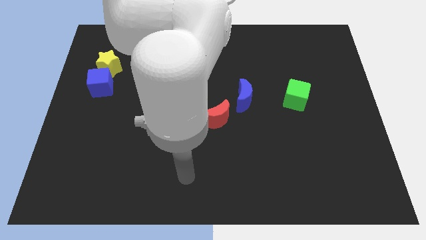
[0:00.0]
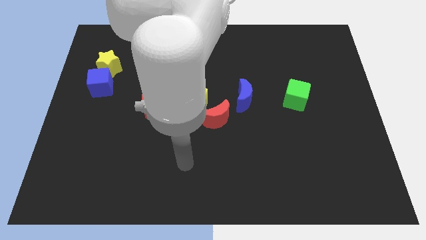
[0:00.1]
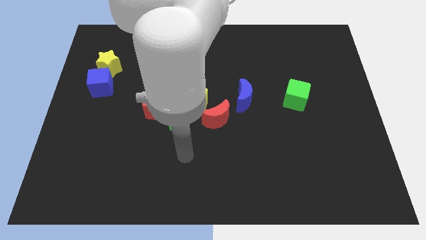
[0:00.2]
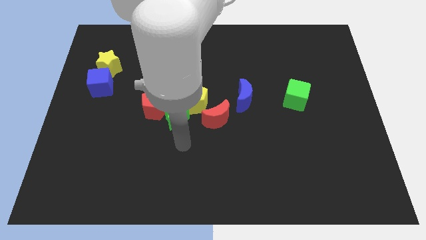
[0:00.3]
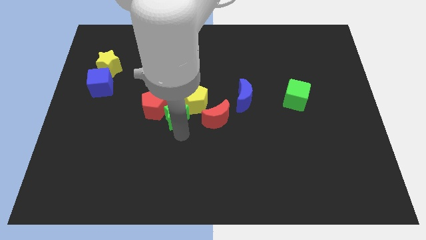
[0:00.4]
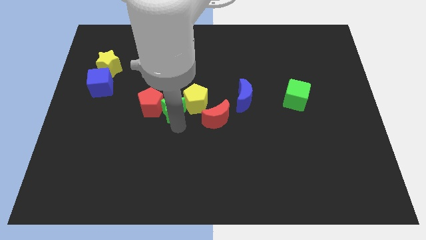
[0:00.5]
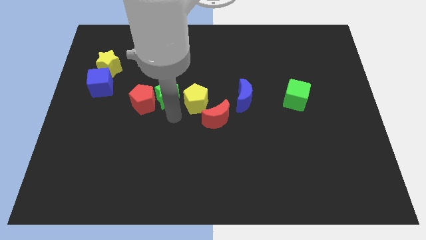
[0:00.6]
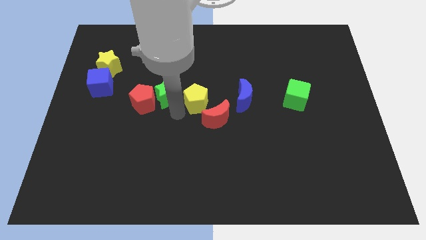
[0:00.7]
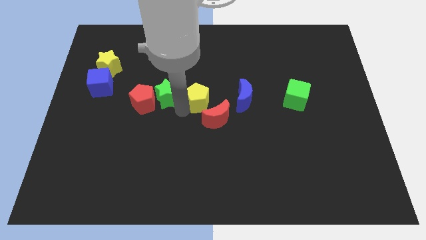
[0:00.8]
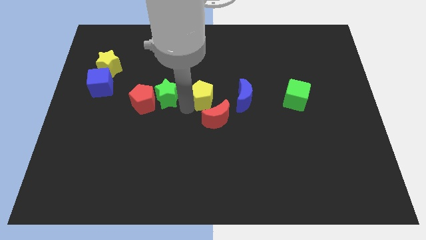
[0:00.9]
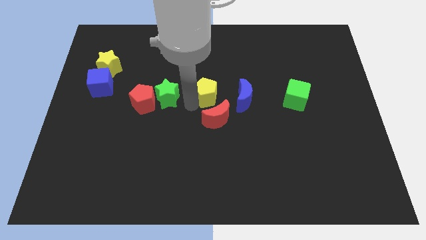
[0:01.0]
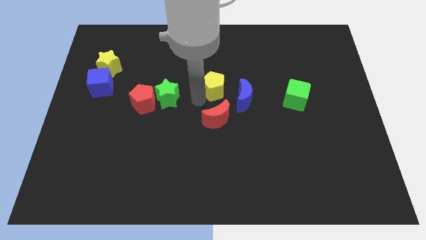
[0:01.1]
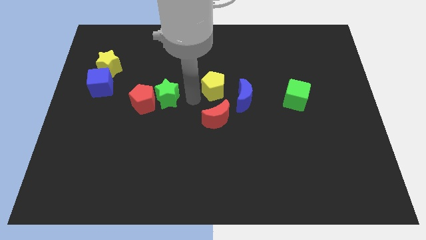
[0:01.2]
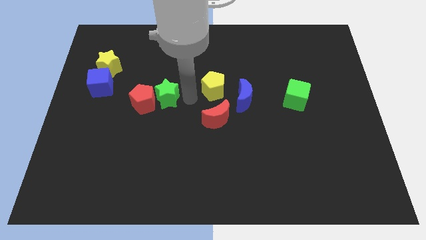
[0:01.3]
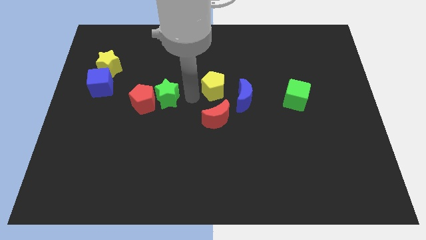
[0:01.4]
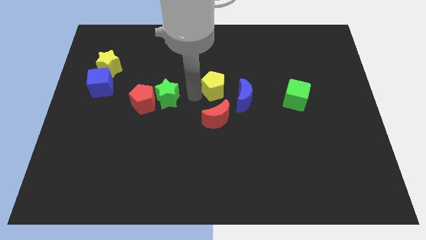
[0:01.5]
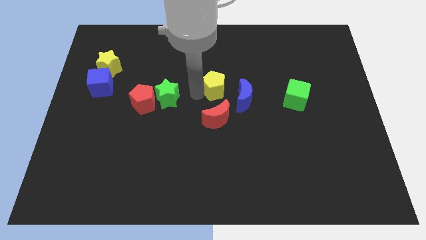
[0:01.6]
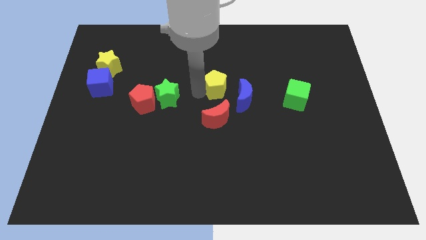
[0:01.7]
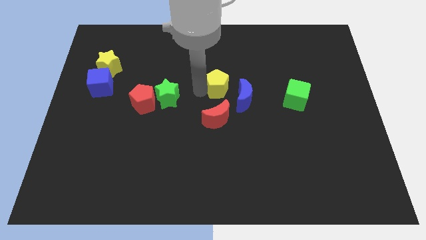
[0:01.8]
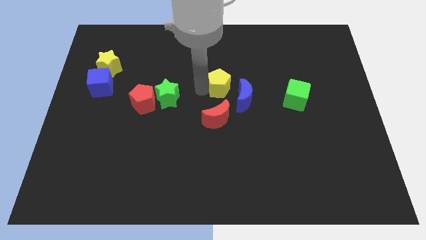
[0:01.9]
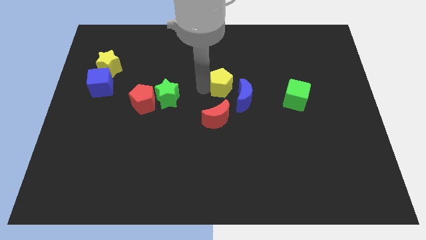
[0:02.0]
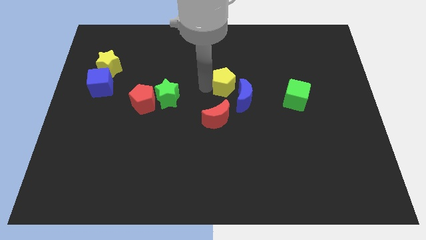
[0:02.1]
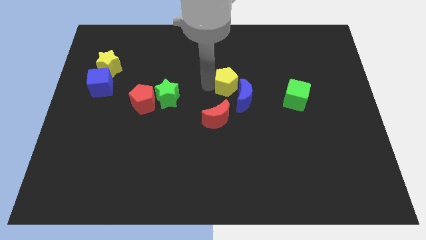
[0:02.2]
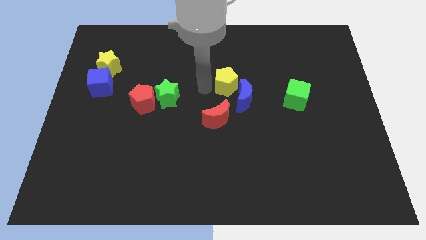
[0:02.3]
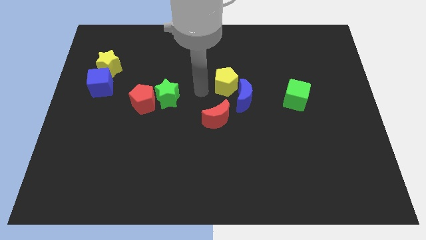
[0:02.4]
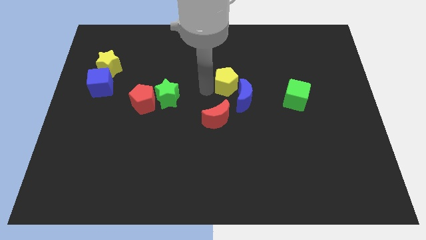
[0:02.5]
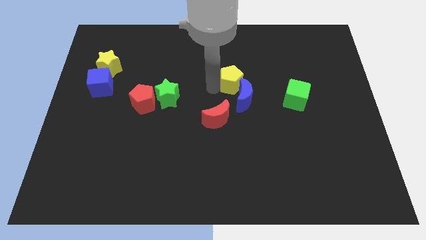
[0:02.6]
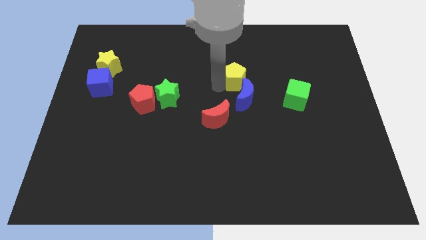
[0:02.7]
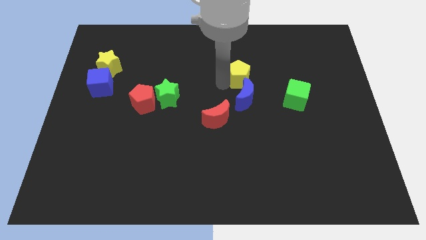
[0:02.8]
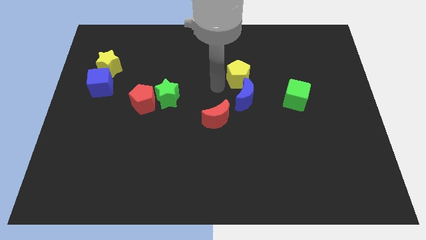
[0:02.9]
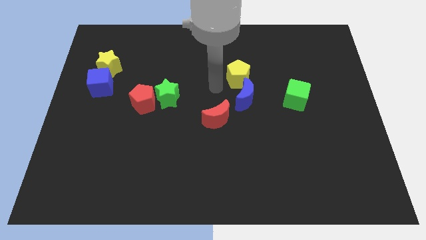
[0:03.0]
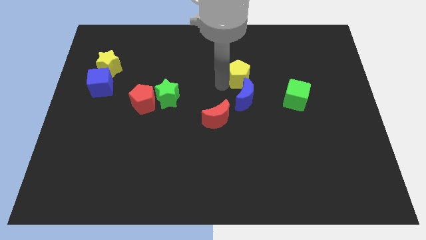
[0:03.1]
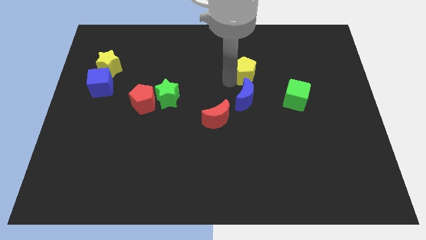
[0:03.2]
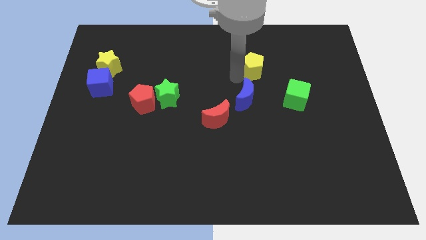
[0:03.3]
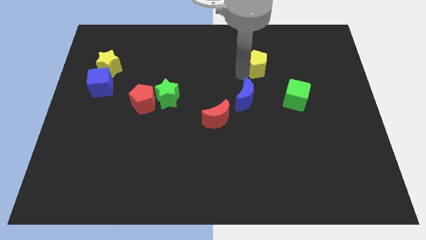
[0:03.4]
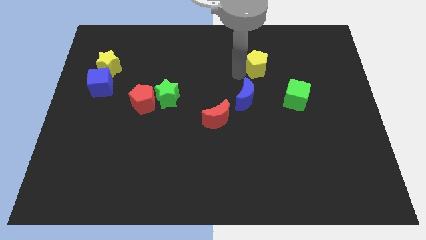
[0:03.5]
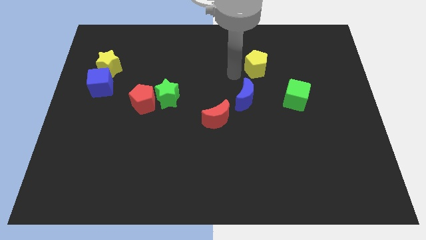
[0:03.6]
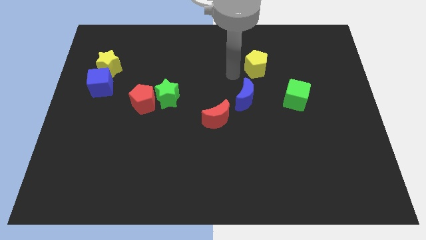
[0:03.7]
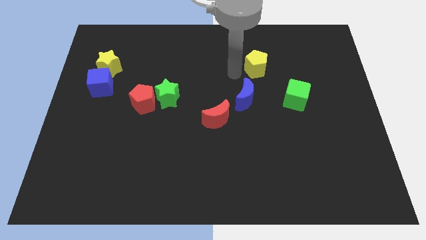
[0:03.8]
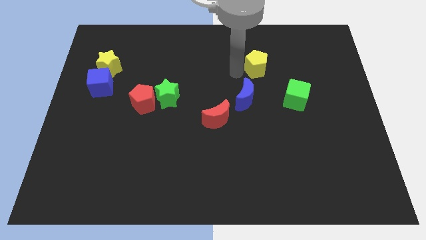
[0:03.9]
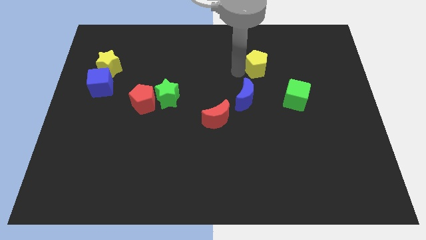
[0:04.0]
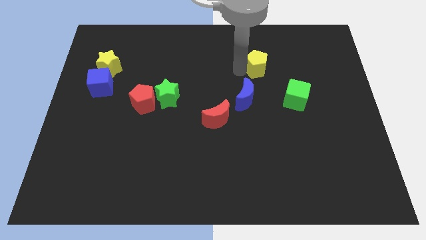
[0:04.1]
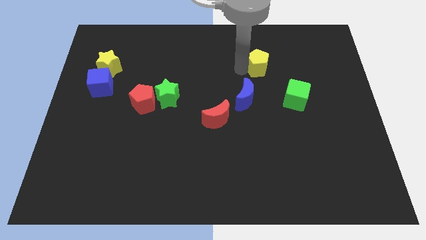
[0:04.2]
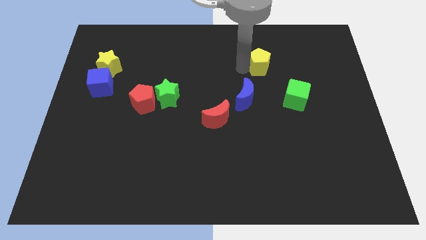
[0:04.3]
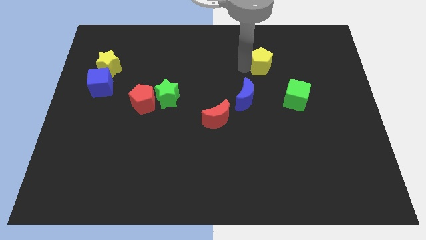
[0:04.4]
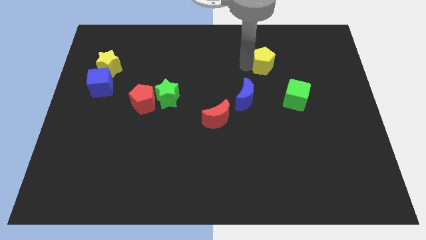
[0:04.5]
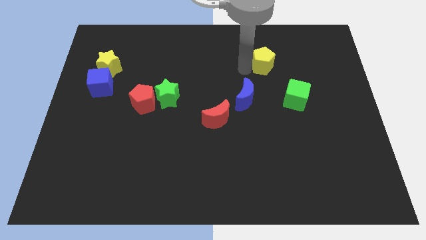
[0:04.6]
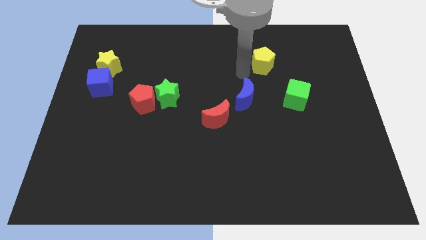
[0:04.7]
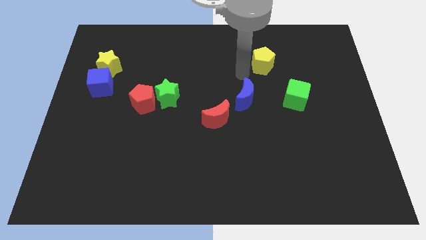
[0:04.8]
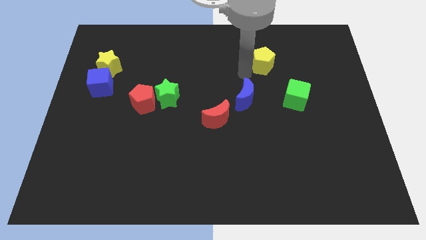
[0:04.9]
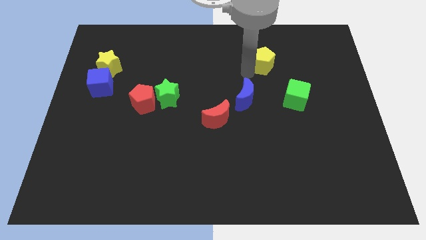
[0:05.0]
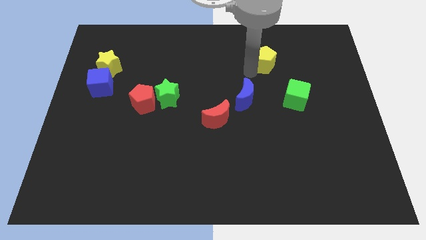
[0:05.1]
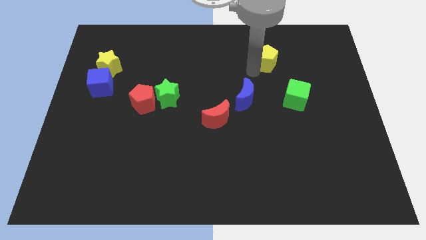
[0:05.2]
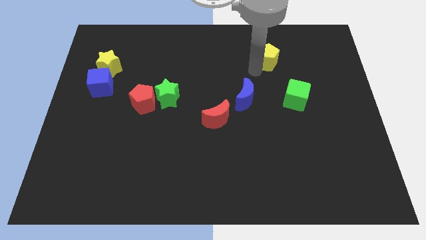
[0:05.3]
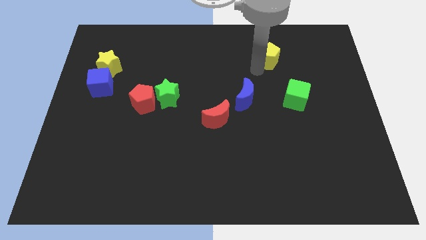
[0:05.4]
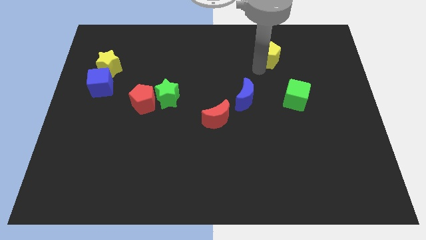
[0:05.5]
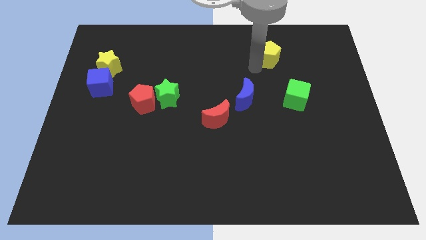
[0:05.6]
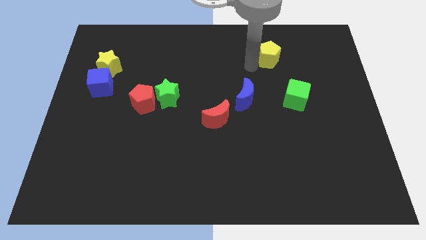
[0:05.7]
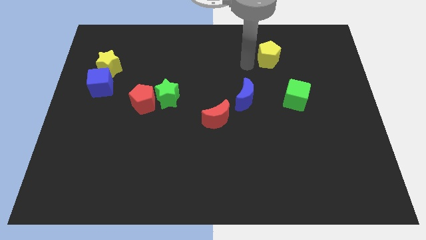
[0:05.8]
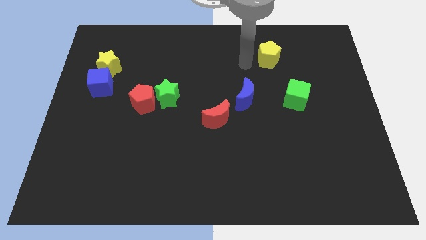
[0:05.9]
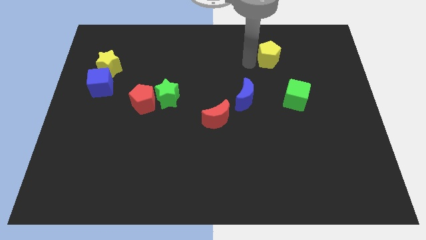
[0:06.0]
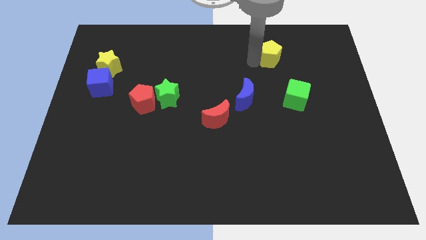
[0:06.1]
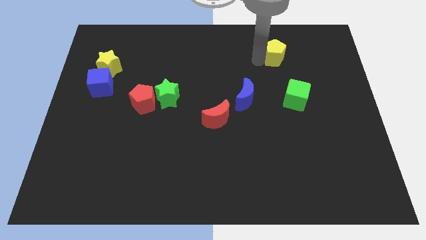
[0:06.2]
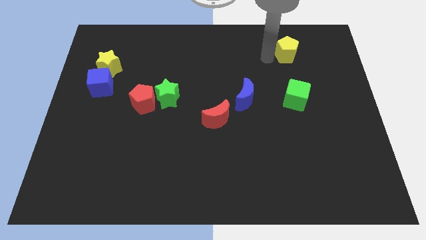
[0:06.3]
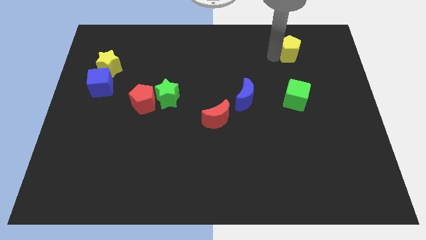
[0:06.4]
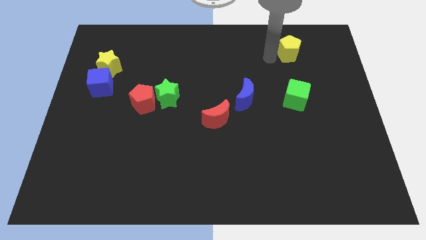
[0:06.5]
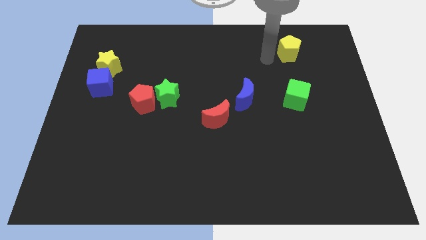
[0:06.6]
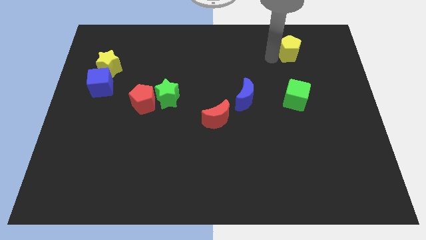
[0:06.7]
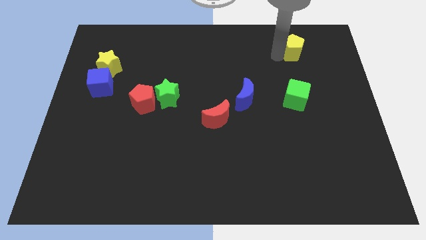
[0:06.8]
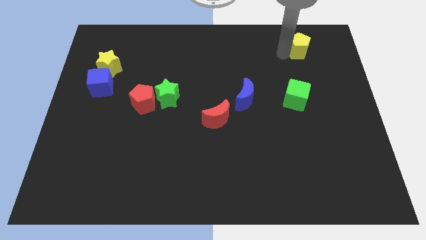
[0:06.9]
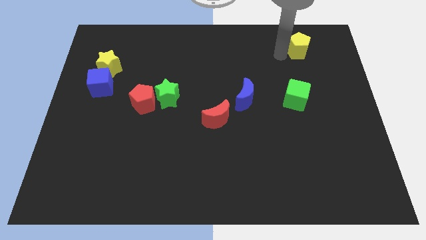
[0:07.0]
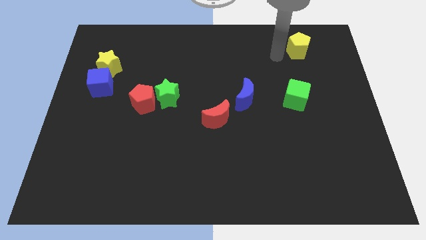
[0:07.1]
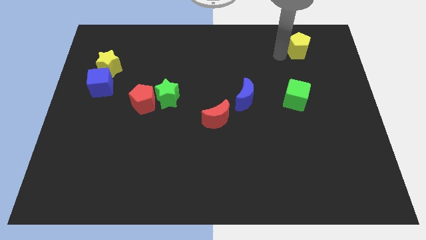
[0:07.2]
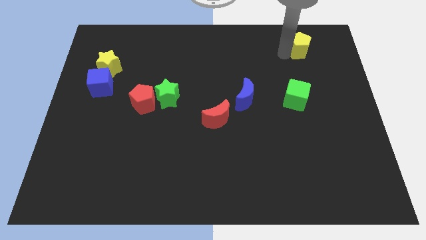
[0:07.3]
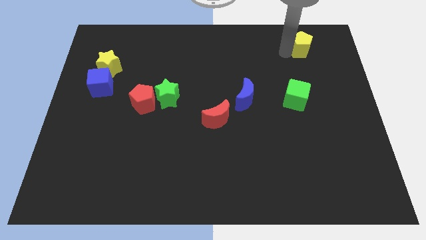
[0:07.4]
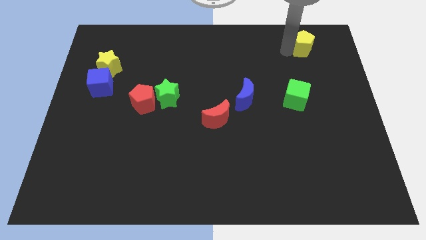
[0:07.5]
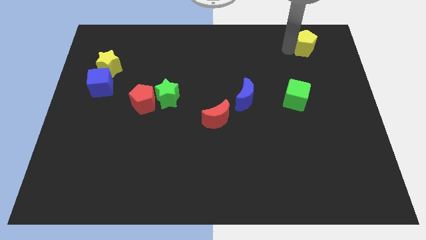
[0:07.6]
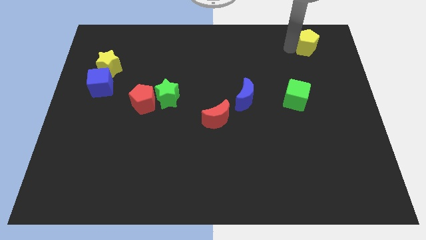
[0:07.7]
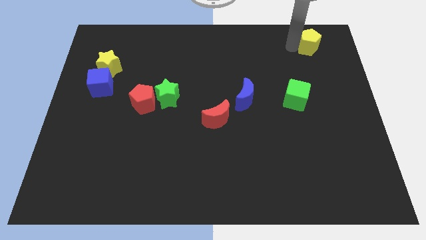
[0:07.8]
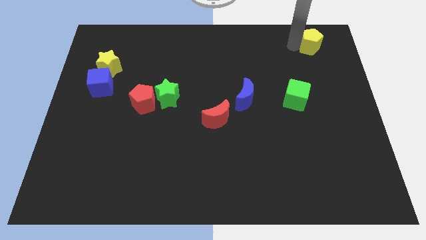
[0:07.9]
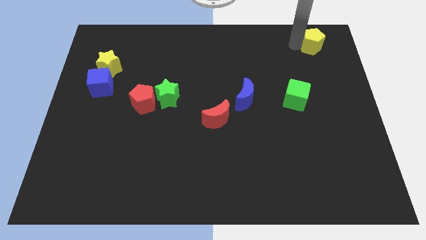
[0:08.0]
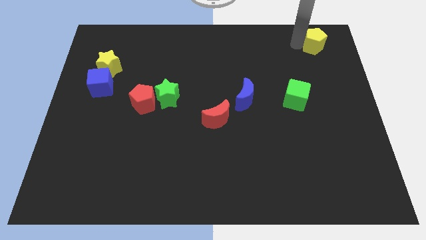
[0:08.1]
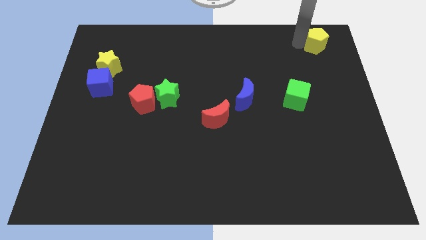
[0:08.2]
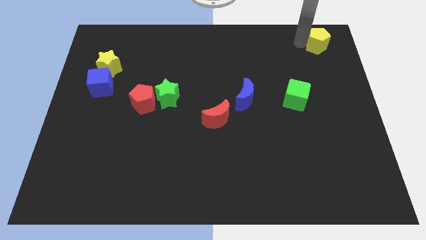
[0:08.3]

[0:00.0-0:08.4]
slide the yellow pentagon to the top right corner
